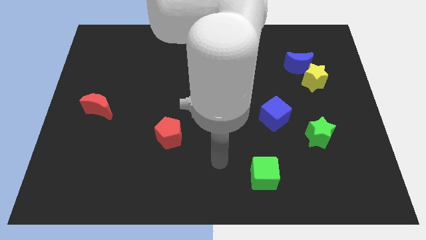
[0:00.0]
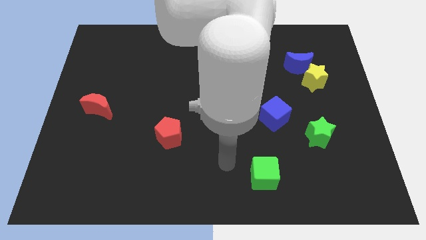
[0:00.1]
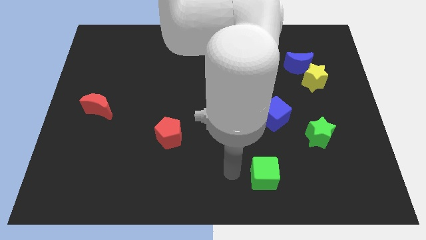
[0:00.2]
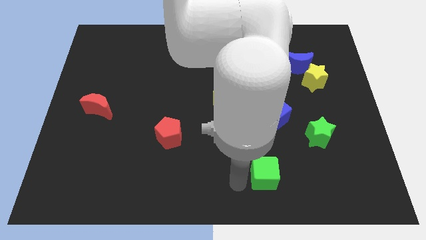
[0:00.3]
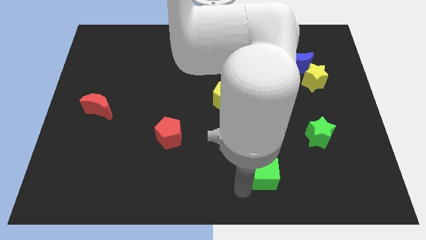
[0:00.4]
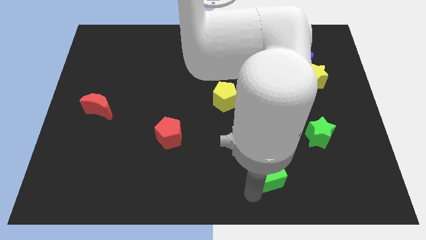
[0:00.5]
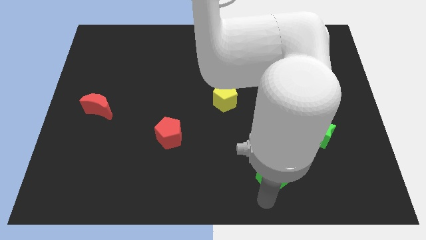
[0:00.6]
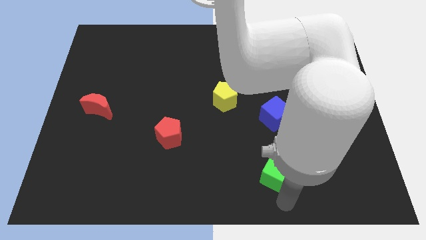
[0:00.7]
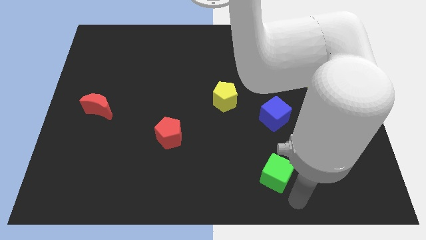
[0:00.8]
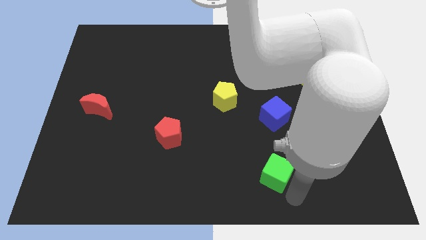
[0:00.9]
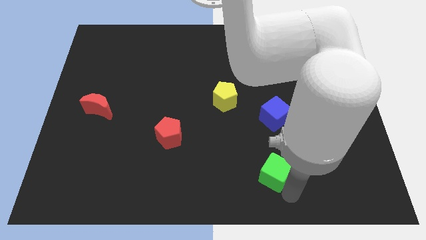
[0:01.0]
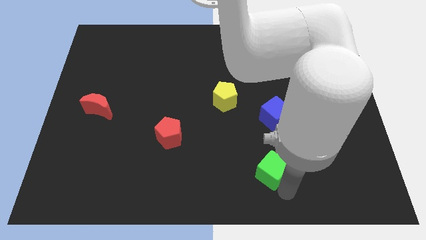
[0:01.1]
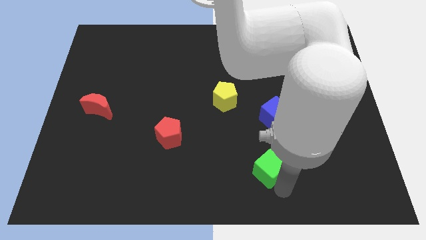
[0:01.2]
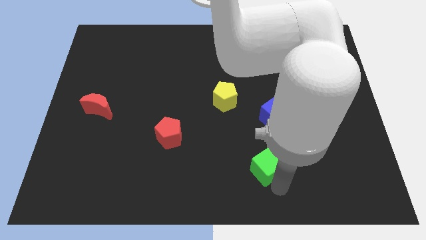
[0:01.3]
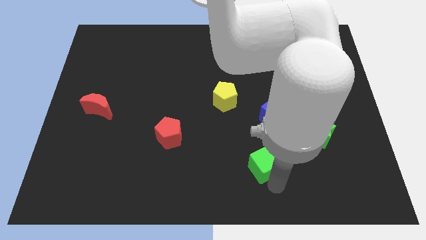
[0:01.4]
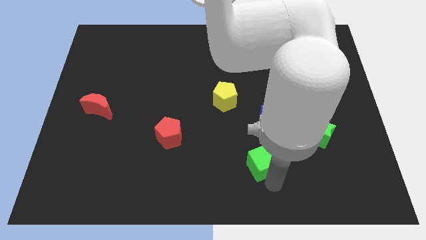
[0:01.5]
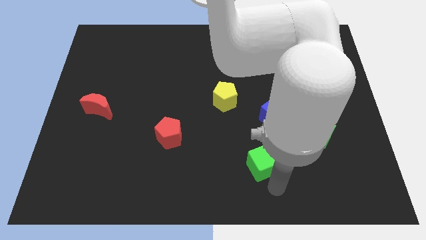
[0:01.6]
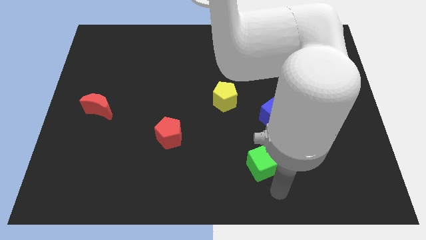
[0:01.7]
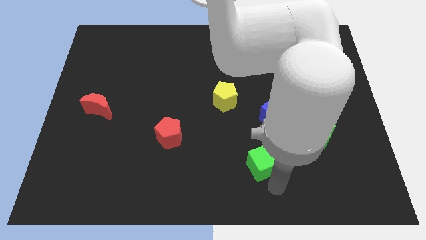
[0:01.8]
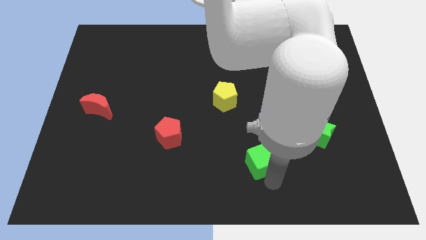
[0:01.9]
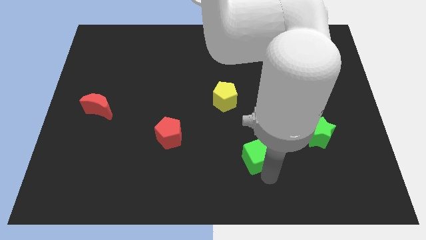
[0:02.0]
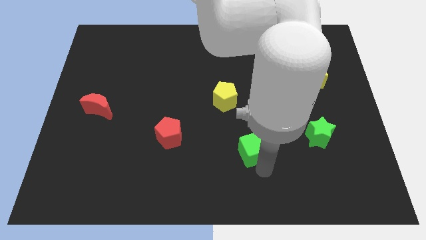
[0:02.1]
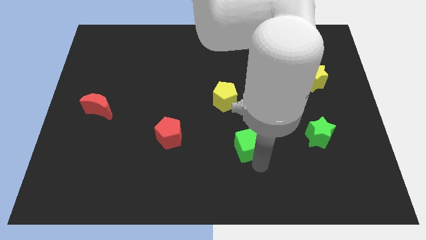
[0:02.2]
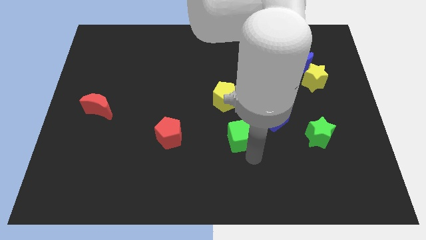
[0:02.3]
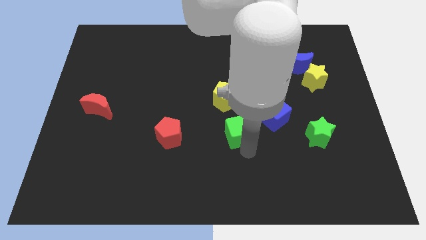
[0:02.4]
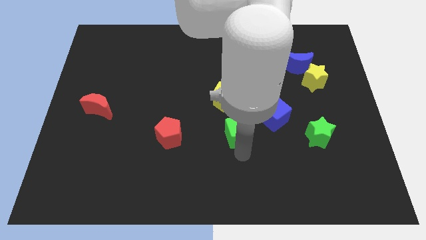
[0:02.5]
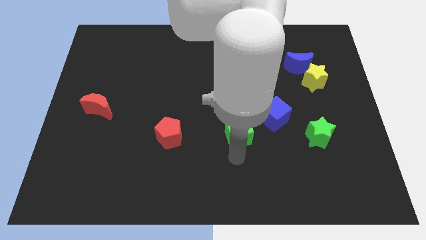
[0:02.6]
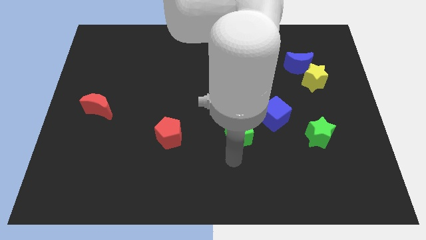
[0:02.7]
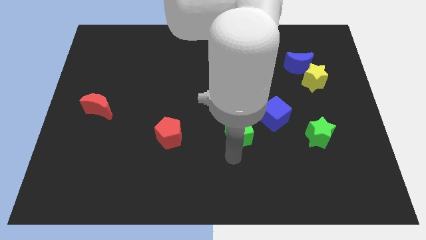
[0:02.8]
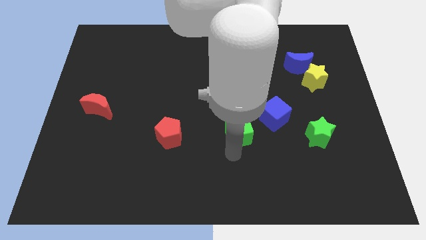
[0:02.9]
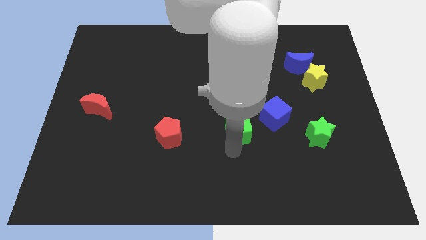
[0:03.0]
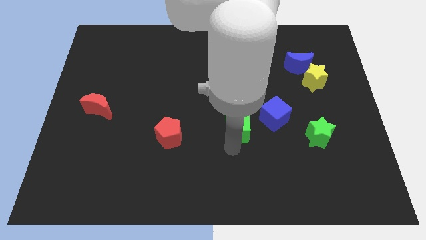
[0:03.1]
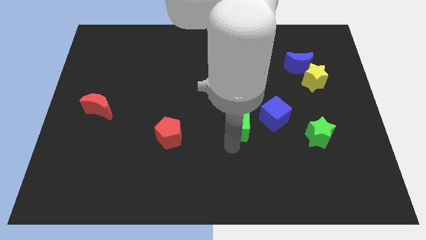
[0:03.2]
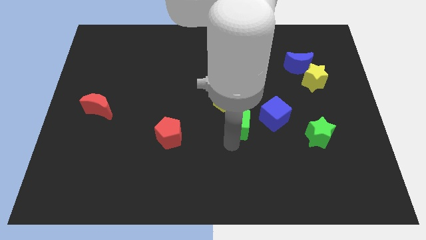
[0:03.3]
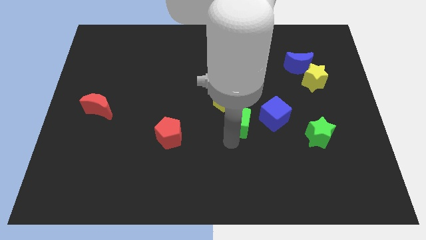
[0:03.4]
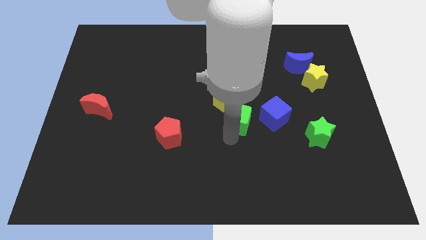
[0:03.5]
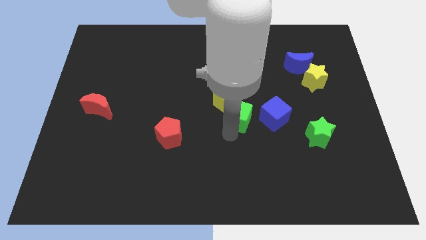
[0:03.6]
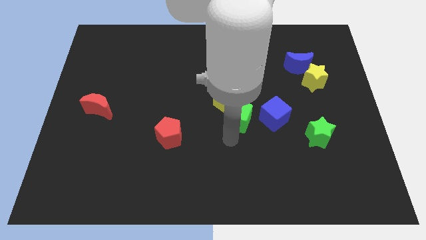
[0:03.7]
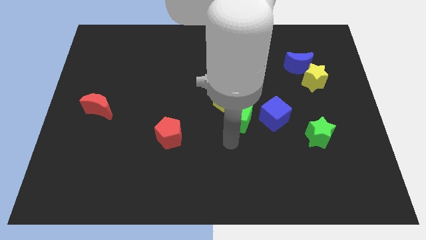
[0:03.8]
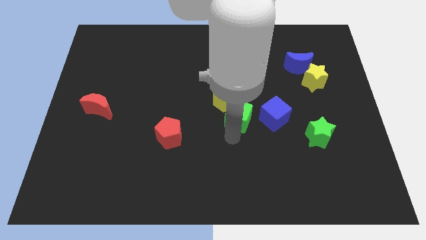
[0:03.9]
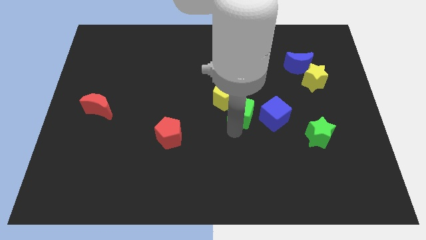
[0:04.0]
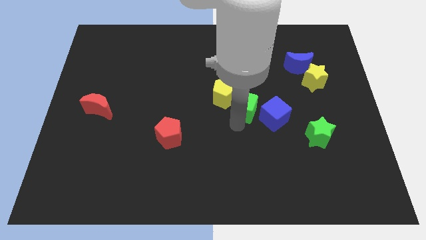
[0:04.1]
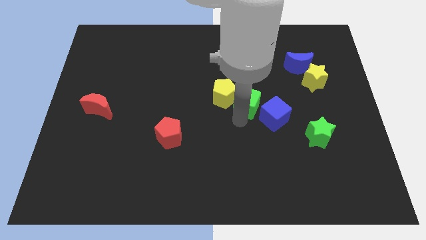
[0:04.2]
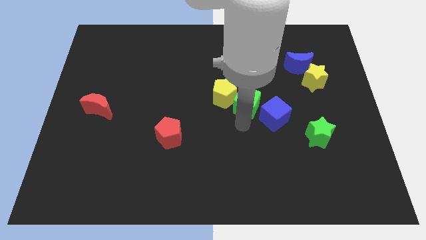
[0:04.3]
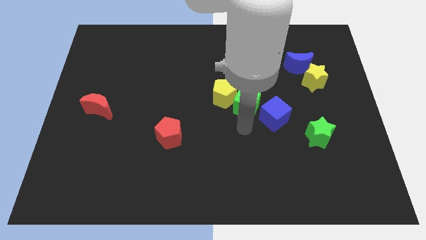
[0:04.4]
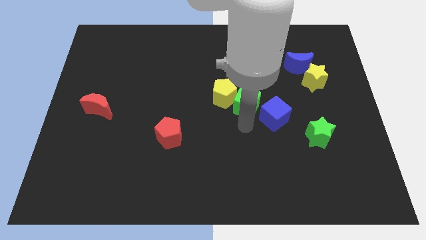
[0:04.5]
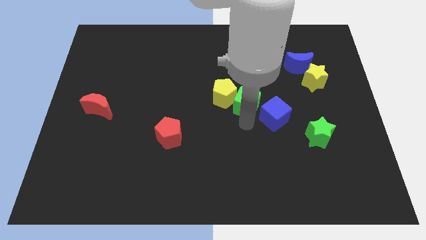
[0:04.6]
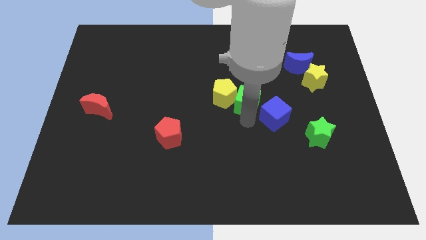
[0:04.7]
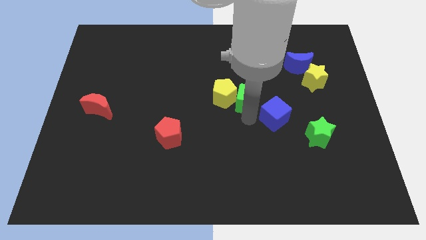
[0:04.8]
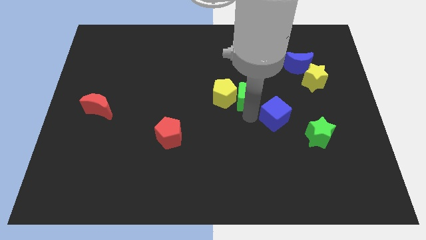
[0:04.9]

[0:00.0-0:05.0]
move the green cube upwards

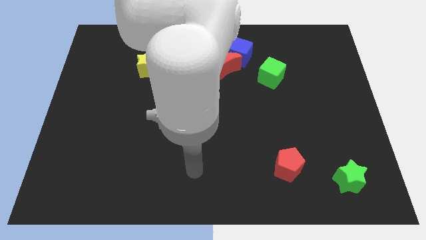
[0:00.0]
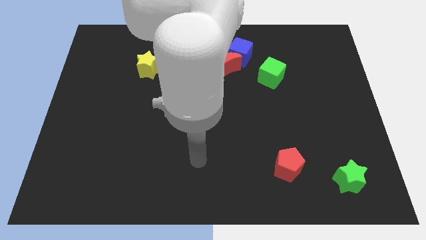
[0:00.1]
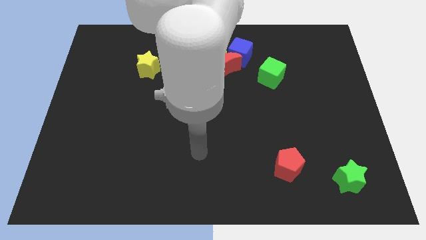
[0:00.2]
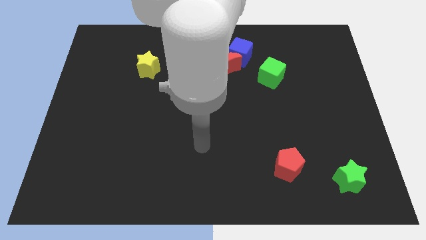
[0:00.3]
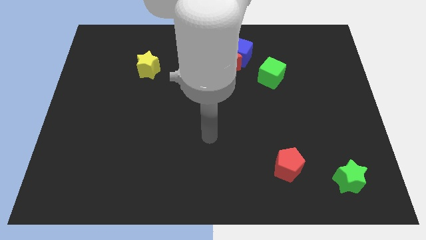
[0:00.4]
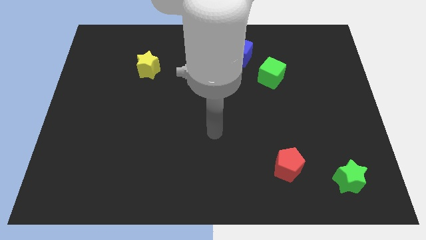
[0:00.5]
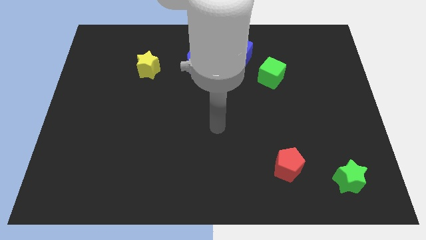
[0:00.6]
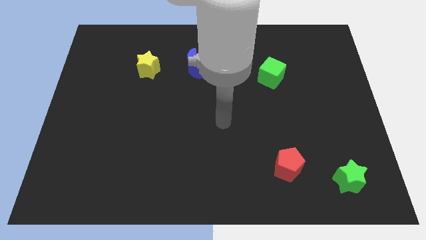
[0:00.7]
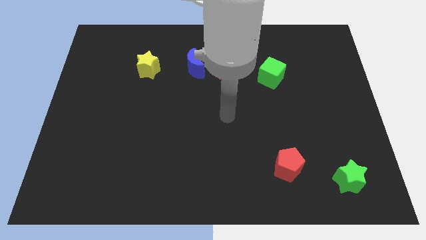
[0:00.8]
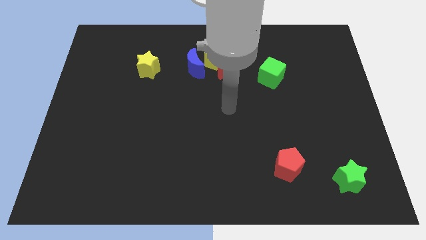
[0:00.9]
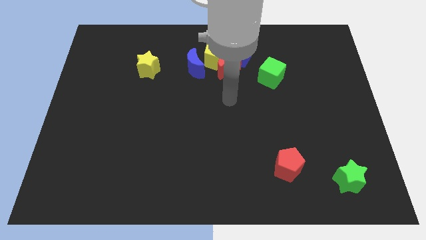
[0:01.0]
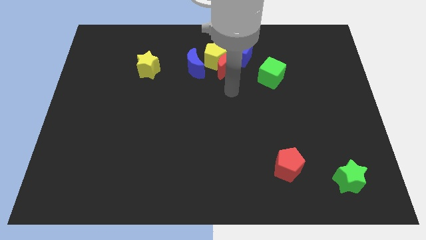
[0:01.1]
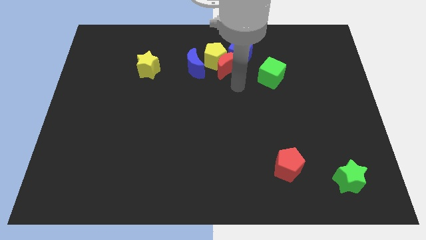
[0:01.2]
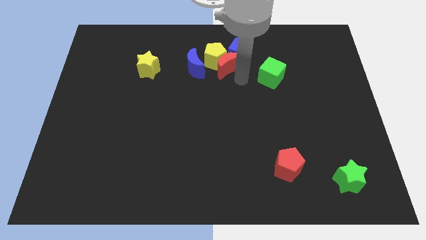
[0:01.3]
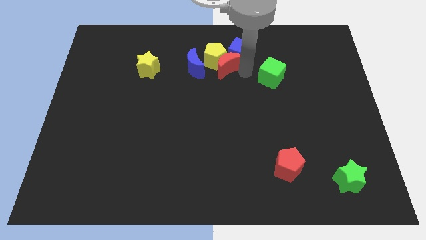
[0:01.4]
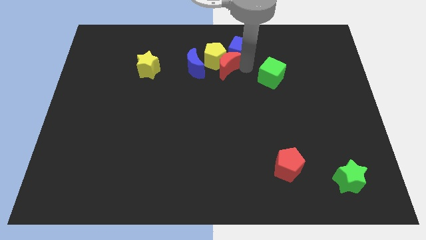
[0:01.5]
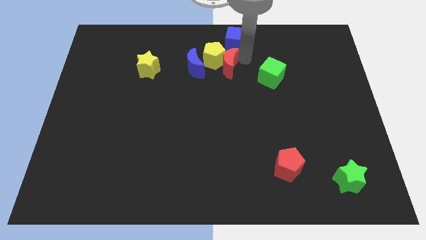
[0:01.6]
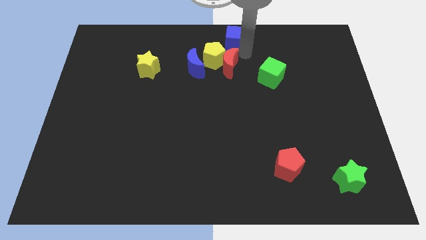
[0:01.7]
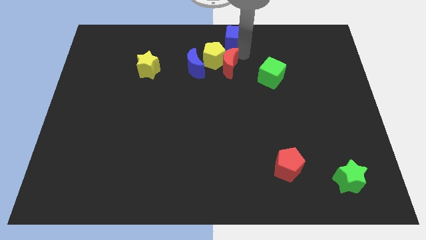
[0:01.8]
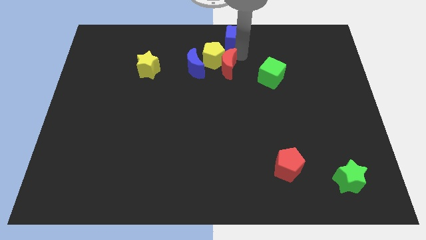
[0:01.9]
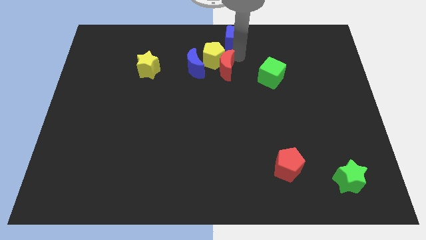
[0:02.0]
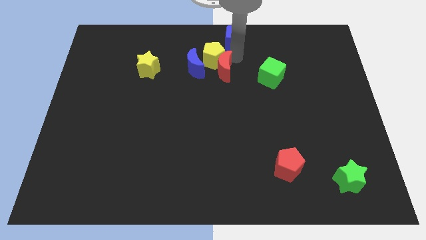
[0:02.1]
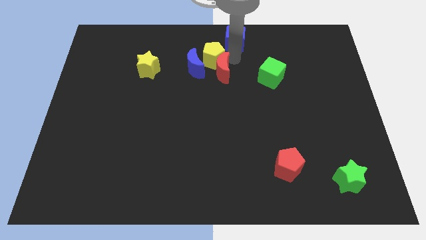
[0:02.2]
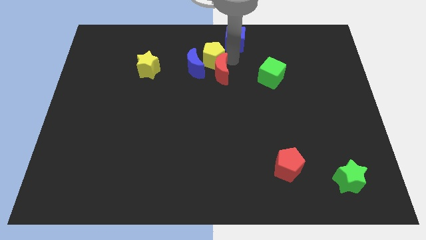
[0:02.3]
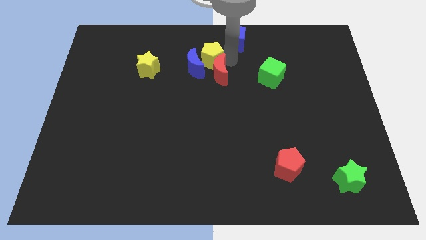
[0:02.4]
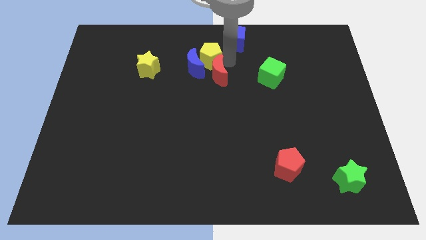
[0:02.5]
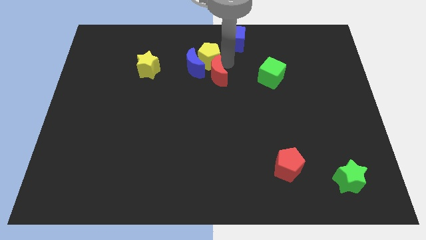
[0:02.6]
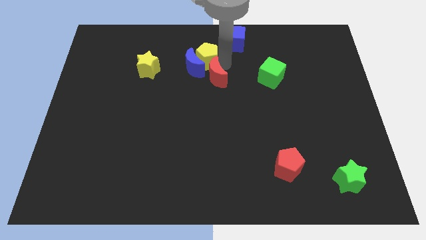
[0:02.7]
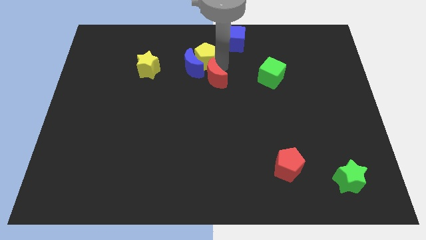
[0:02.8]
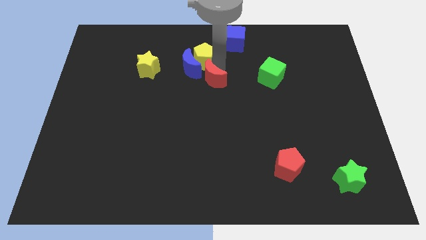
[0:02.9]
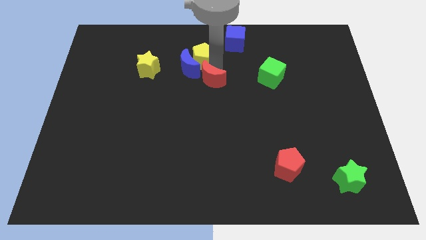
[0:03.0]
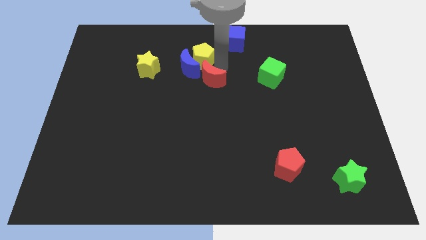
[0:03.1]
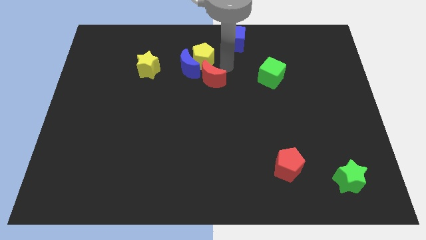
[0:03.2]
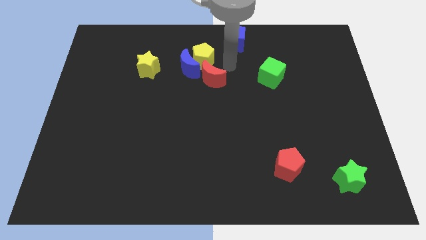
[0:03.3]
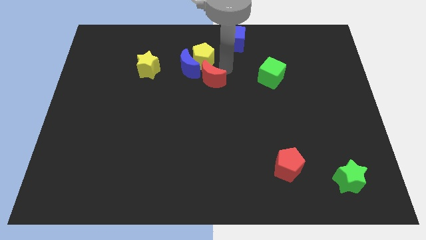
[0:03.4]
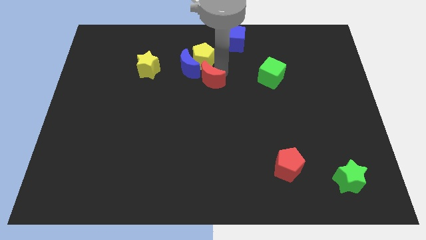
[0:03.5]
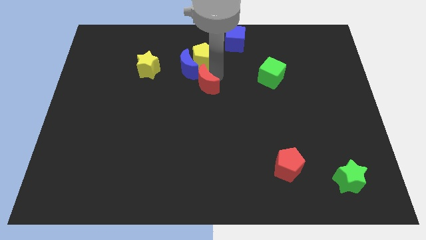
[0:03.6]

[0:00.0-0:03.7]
move the red moon a bit downwards and then to the left
